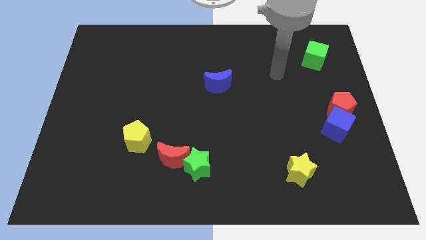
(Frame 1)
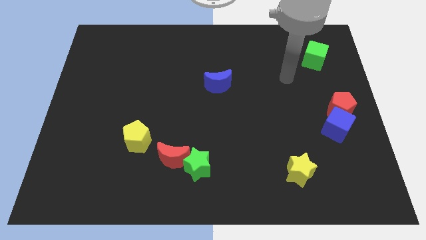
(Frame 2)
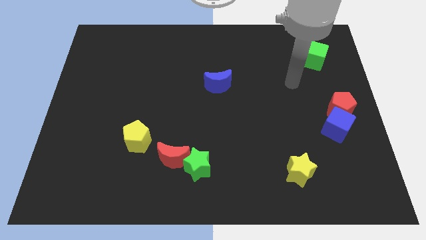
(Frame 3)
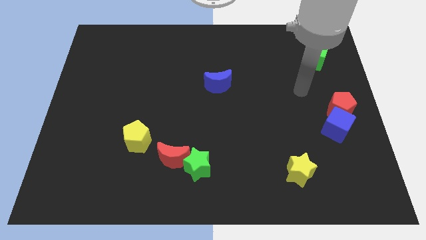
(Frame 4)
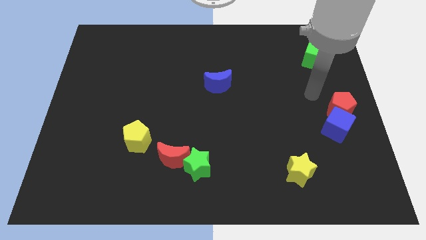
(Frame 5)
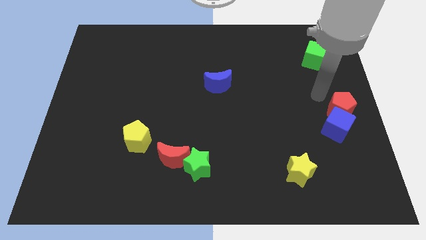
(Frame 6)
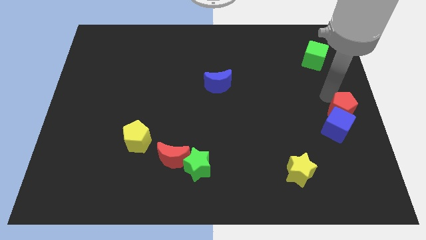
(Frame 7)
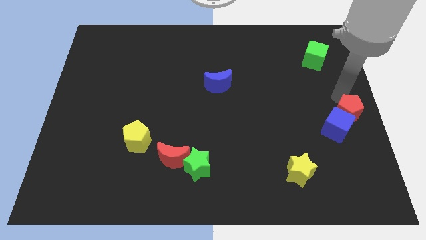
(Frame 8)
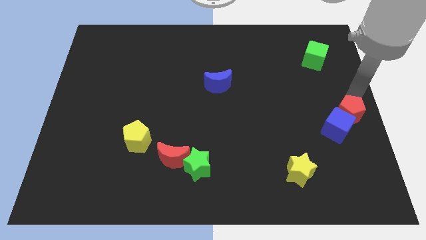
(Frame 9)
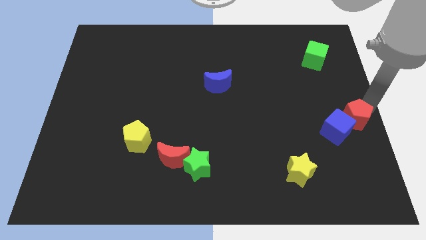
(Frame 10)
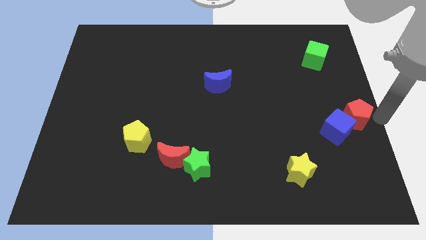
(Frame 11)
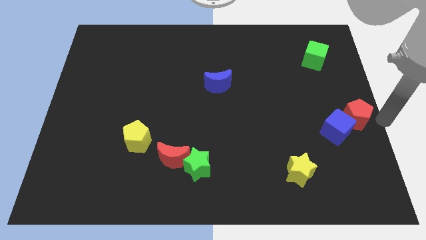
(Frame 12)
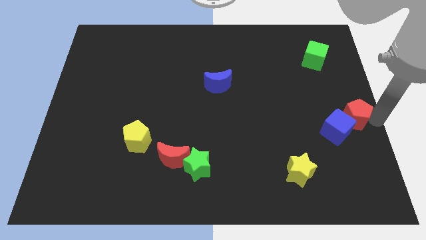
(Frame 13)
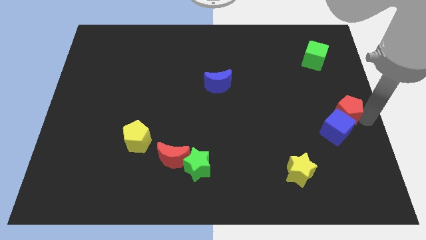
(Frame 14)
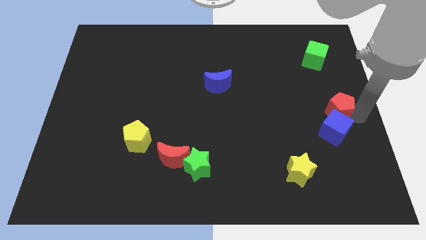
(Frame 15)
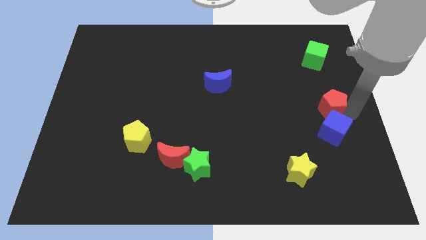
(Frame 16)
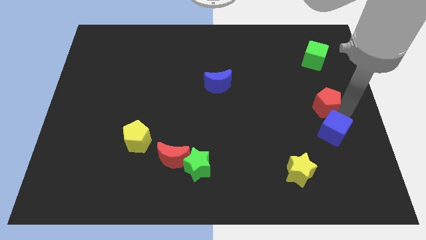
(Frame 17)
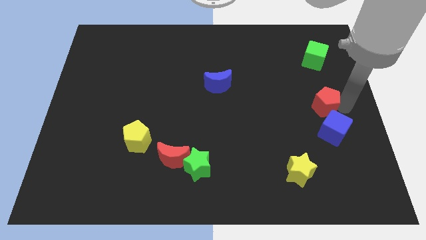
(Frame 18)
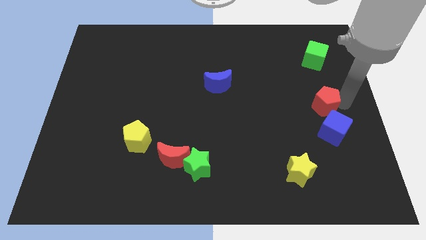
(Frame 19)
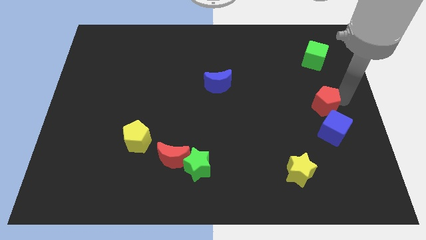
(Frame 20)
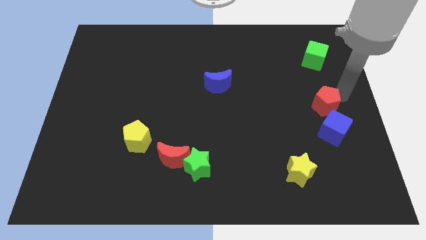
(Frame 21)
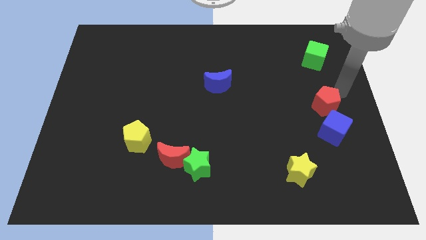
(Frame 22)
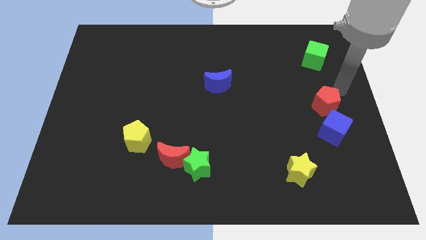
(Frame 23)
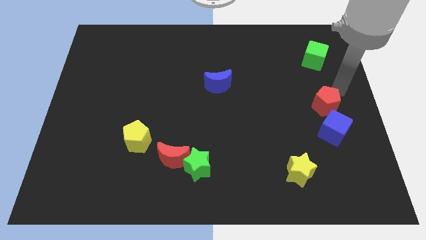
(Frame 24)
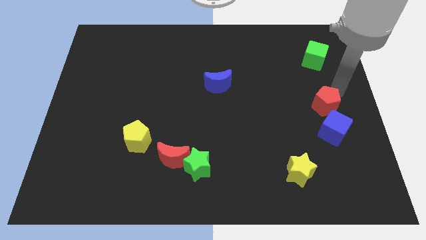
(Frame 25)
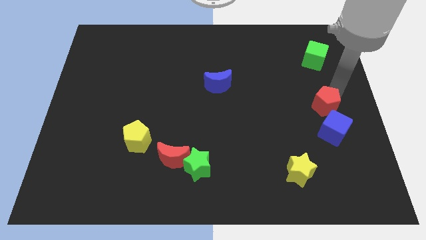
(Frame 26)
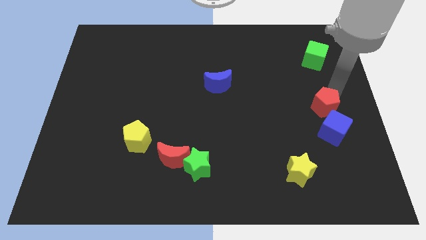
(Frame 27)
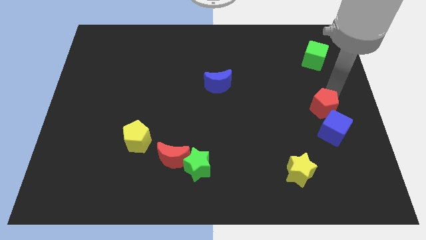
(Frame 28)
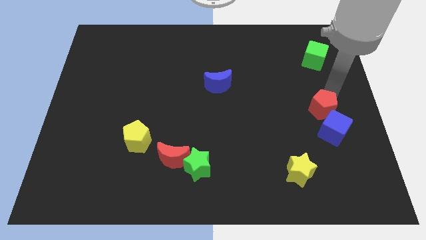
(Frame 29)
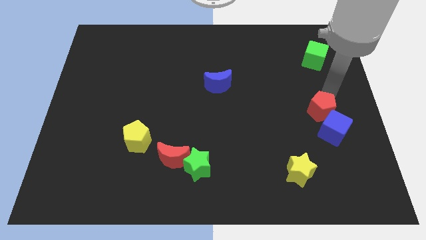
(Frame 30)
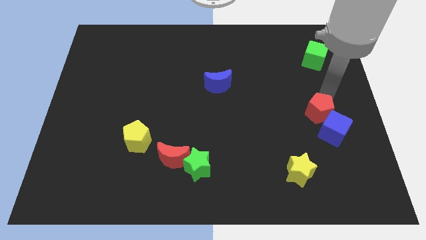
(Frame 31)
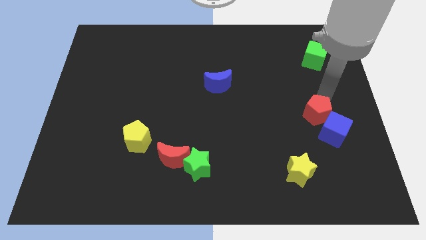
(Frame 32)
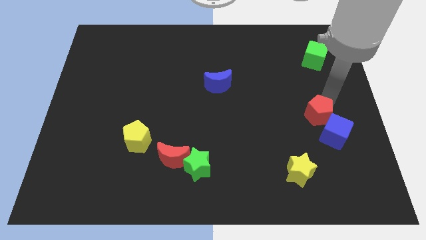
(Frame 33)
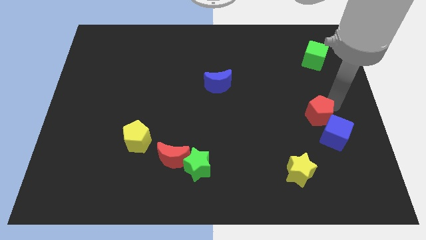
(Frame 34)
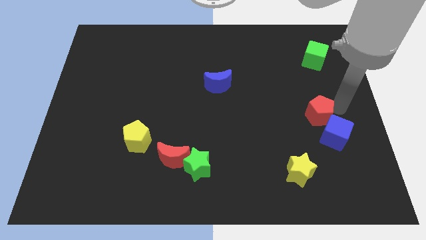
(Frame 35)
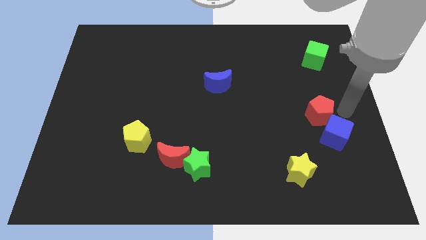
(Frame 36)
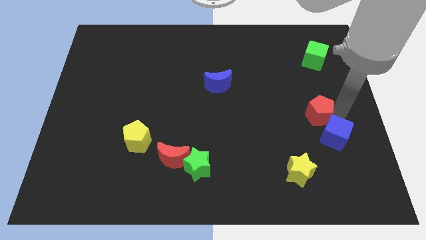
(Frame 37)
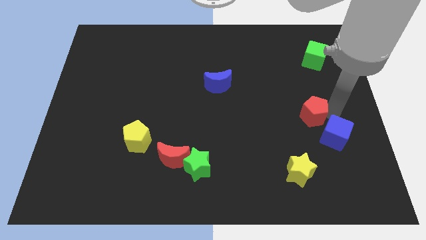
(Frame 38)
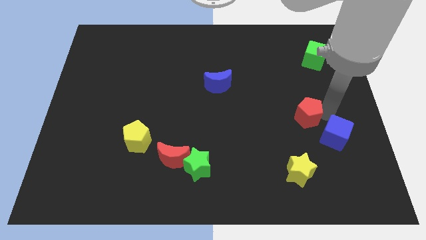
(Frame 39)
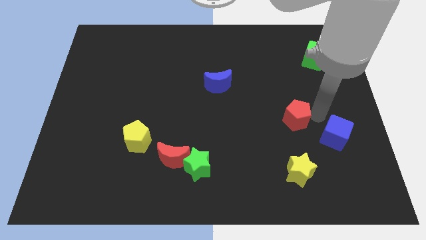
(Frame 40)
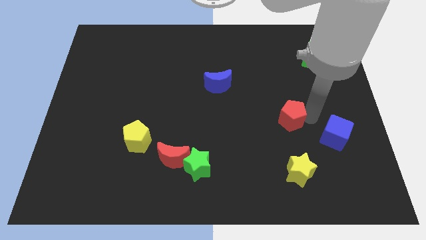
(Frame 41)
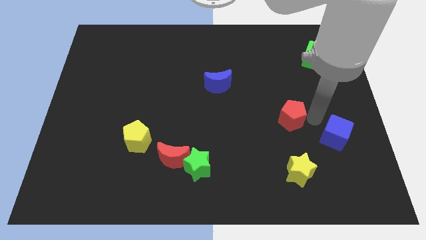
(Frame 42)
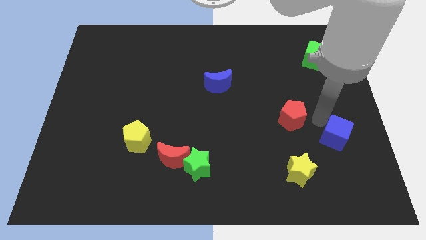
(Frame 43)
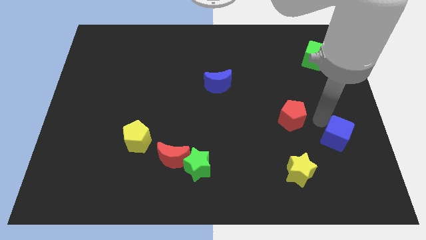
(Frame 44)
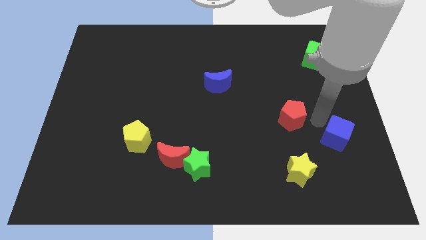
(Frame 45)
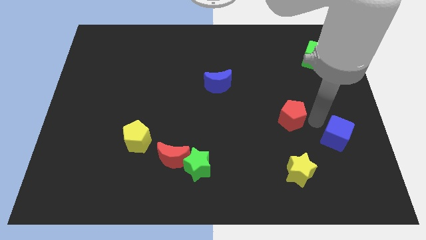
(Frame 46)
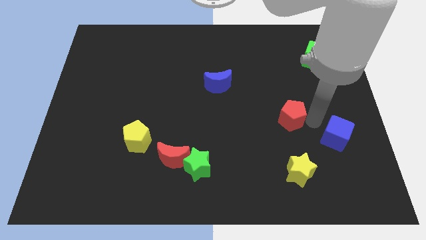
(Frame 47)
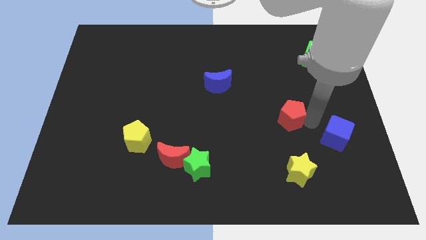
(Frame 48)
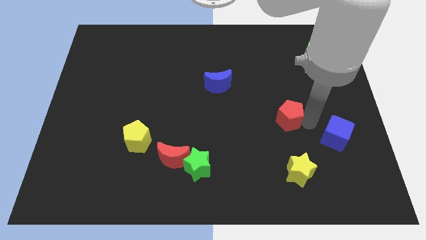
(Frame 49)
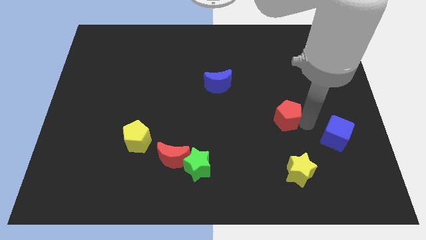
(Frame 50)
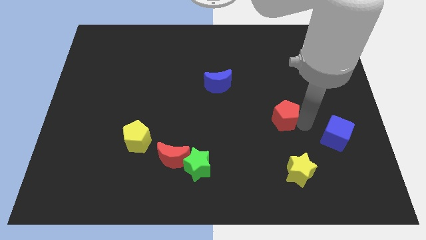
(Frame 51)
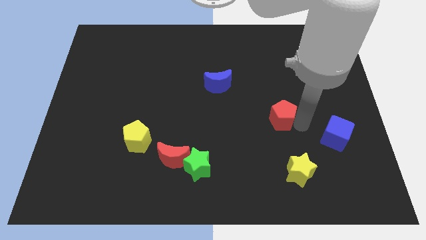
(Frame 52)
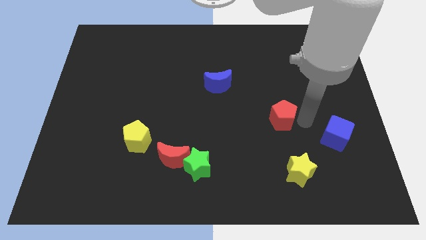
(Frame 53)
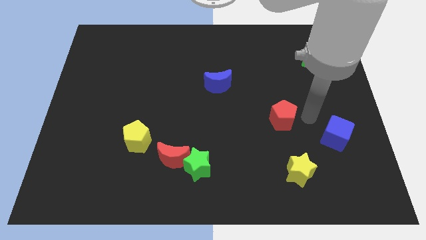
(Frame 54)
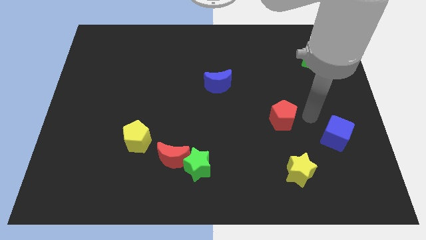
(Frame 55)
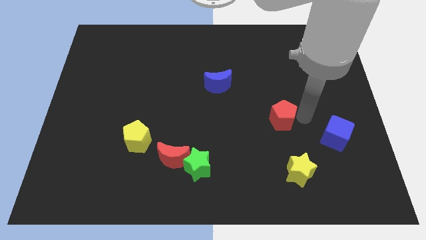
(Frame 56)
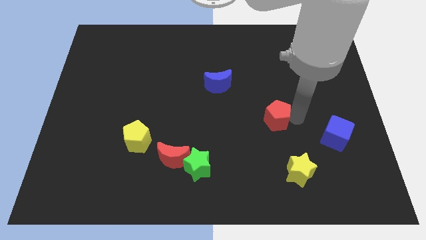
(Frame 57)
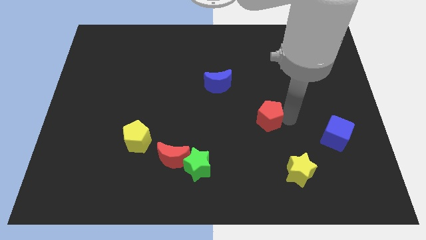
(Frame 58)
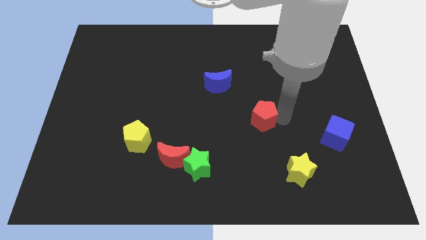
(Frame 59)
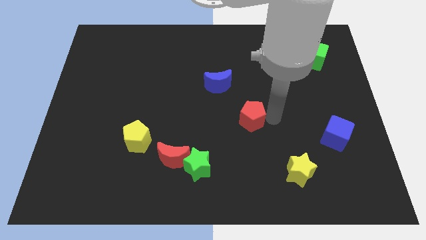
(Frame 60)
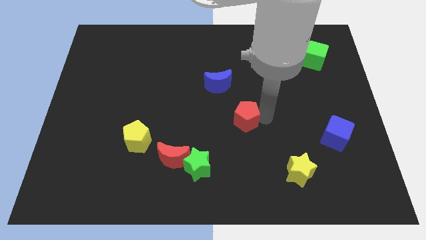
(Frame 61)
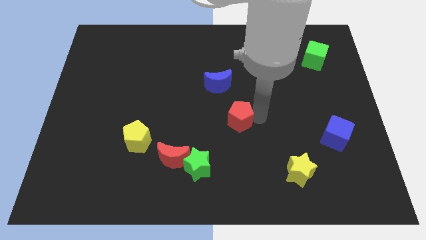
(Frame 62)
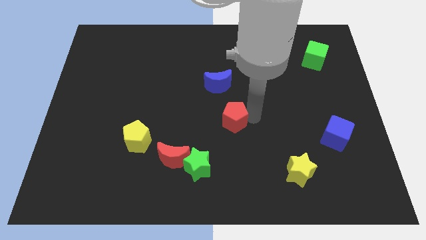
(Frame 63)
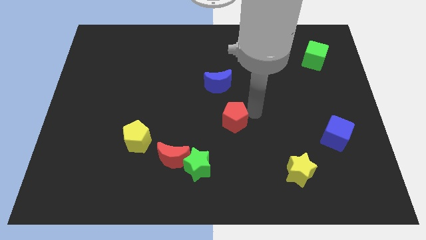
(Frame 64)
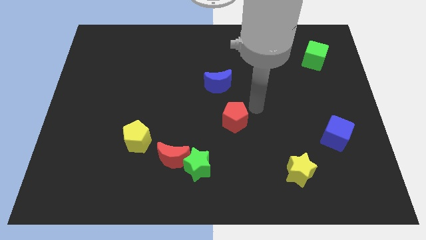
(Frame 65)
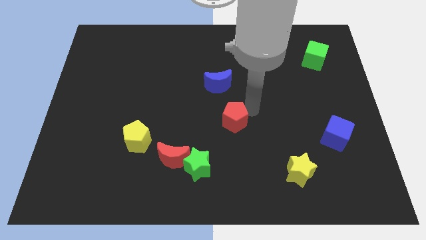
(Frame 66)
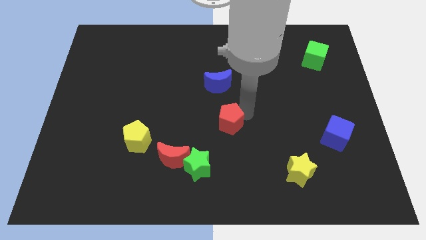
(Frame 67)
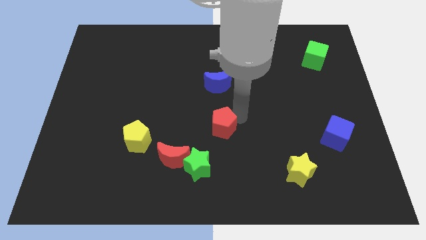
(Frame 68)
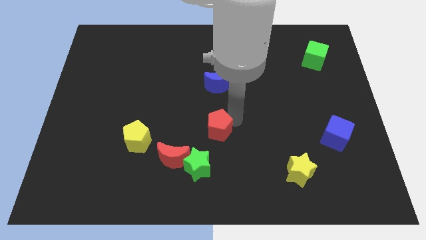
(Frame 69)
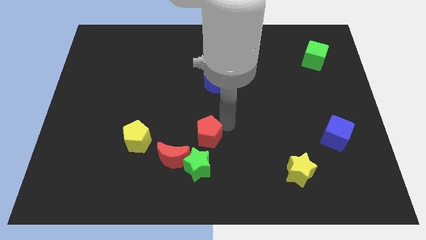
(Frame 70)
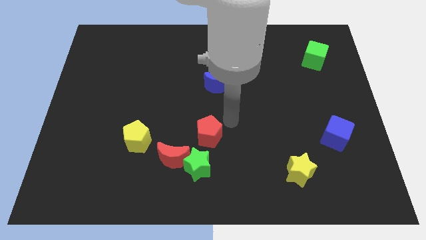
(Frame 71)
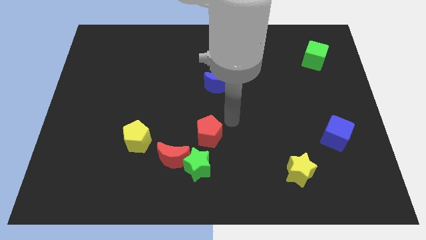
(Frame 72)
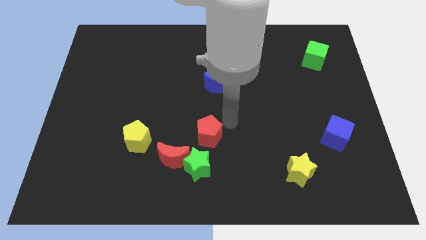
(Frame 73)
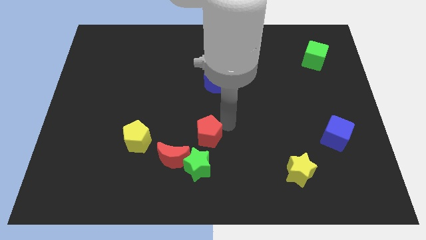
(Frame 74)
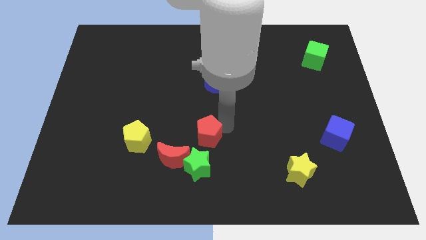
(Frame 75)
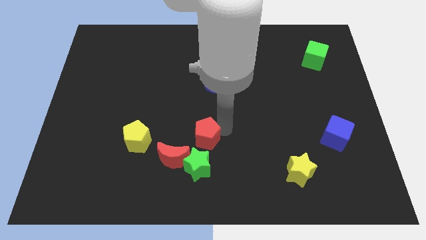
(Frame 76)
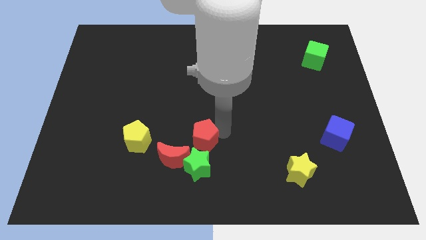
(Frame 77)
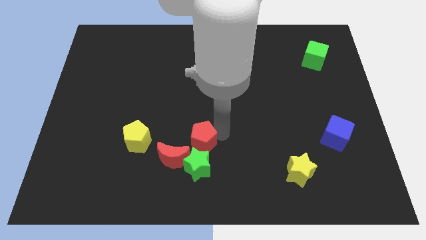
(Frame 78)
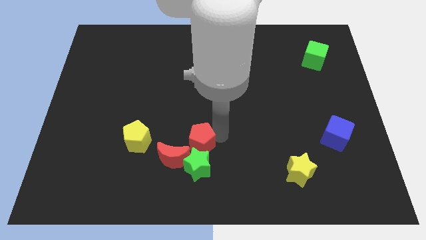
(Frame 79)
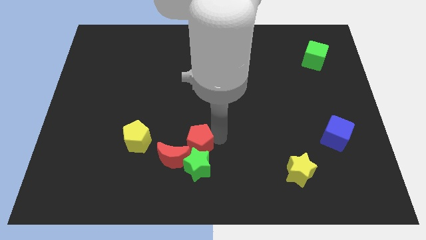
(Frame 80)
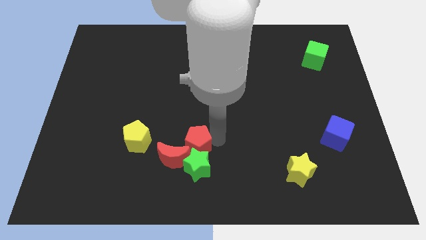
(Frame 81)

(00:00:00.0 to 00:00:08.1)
put the red pentagon next to the red moon
